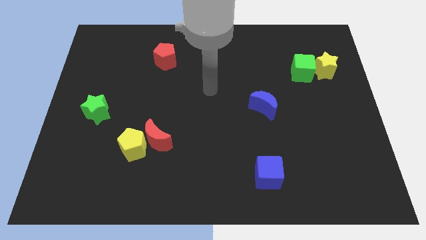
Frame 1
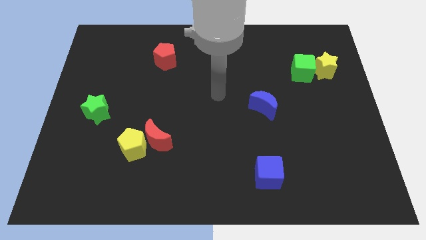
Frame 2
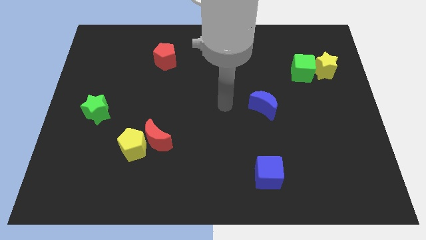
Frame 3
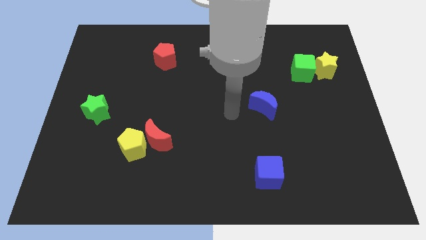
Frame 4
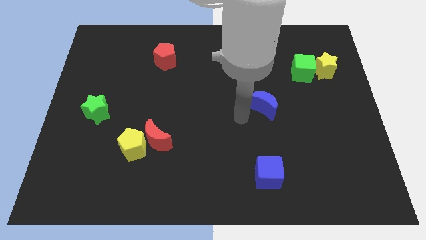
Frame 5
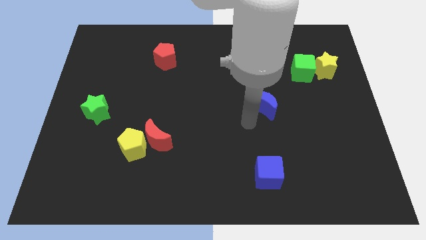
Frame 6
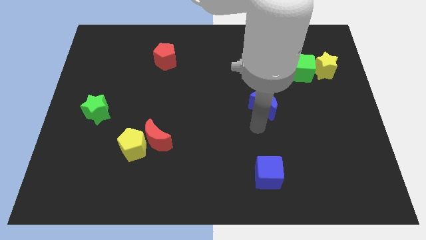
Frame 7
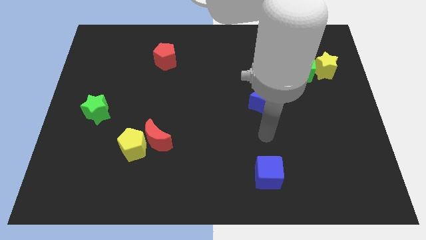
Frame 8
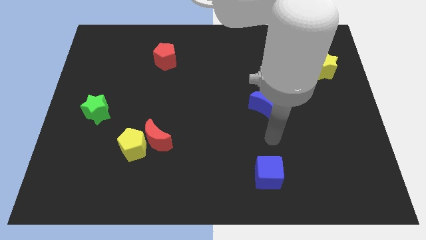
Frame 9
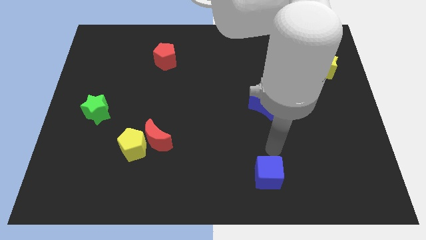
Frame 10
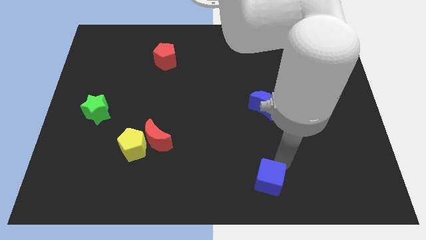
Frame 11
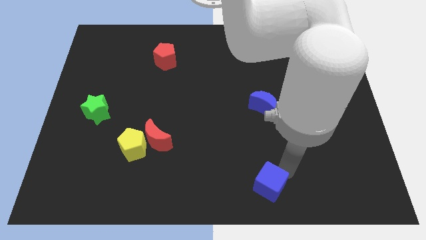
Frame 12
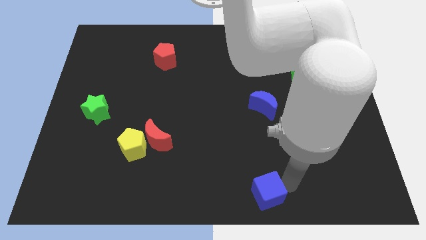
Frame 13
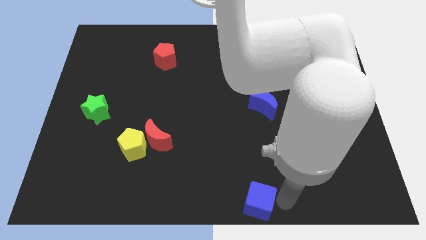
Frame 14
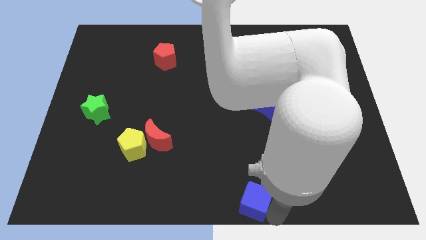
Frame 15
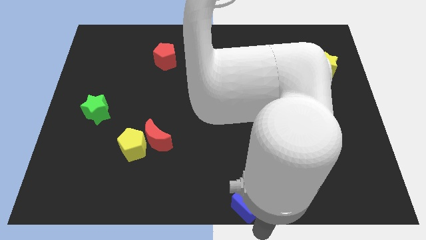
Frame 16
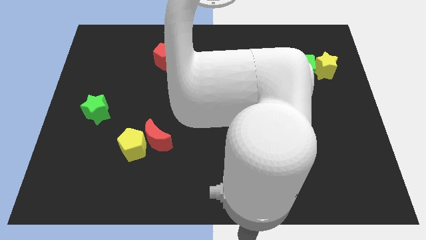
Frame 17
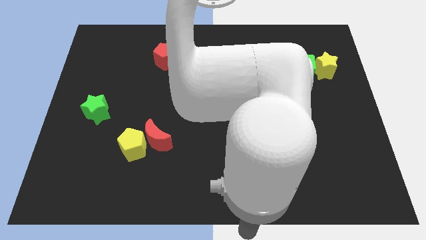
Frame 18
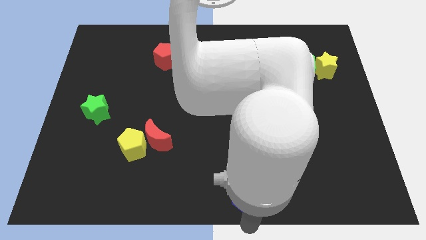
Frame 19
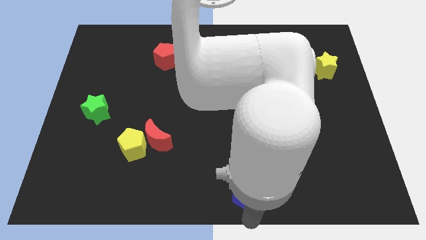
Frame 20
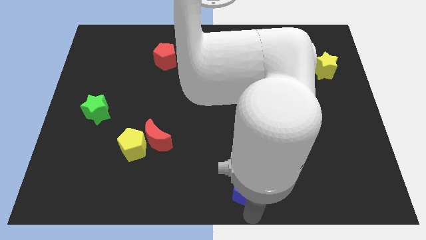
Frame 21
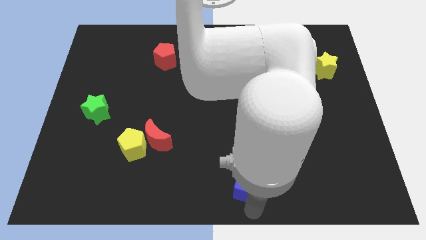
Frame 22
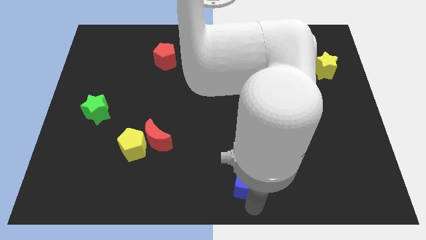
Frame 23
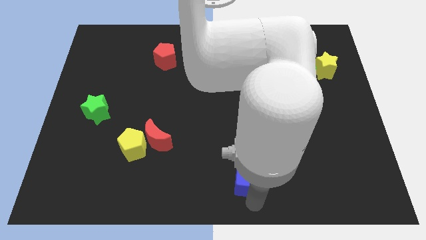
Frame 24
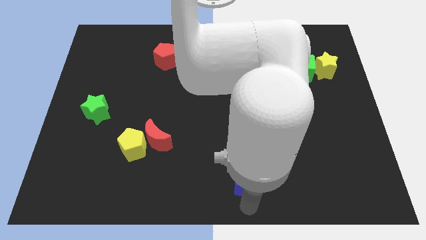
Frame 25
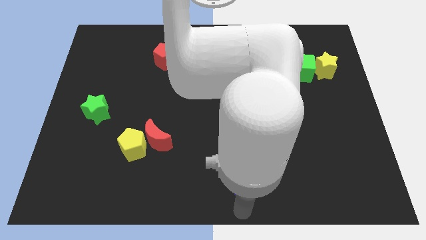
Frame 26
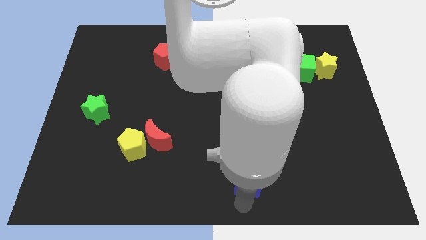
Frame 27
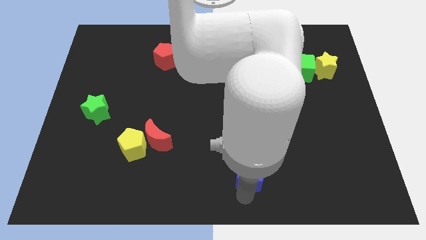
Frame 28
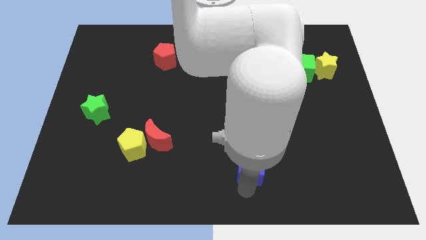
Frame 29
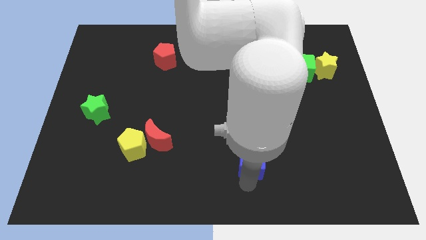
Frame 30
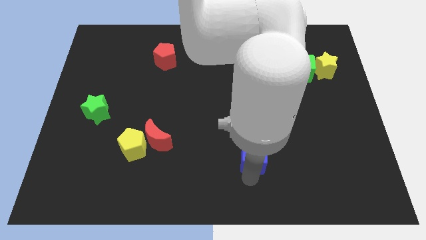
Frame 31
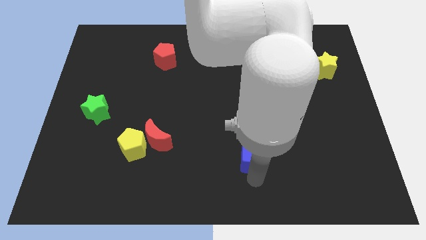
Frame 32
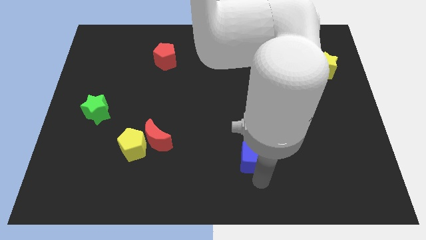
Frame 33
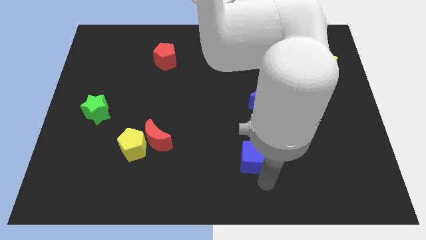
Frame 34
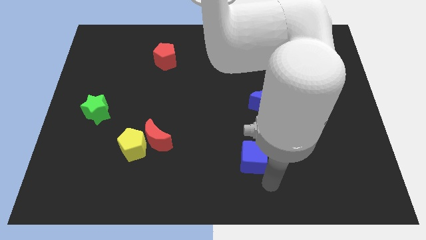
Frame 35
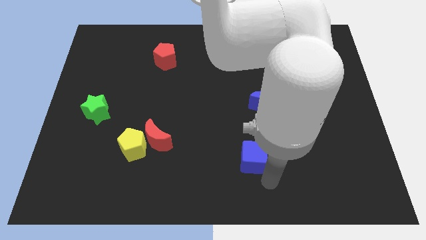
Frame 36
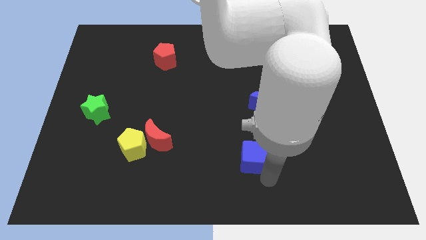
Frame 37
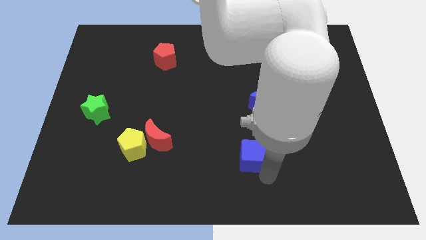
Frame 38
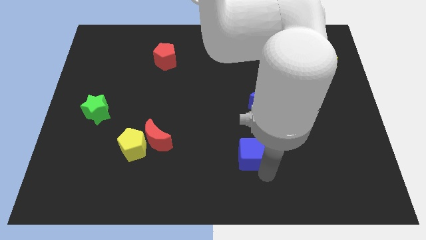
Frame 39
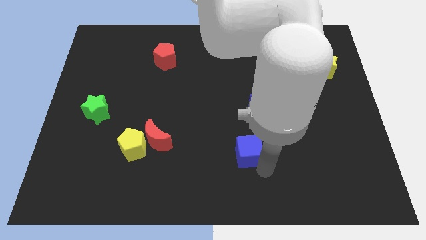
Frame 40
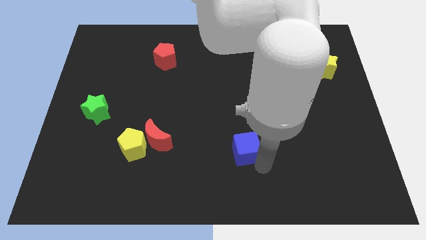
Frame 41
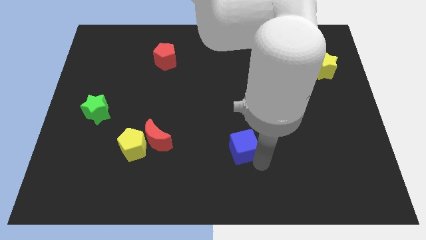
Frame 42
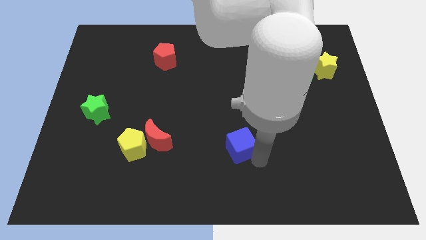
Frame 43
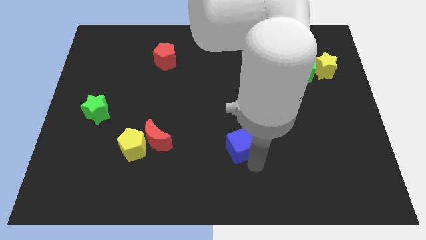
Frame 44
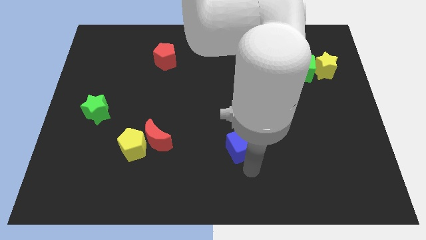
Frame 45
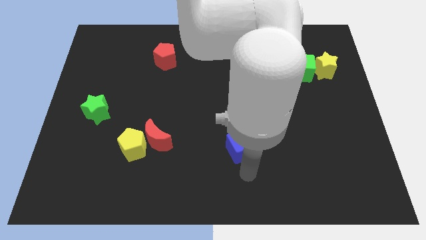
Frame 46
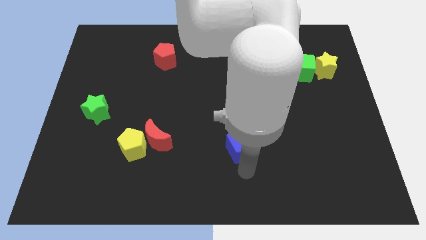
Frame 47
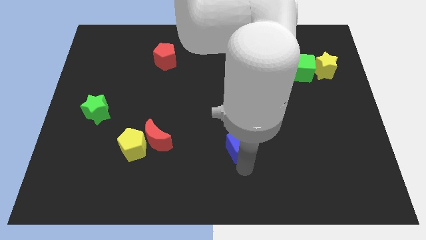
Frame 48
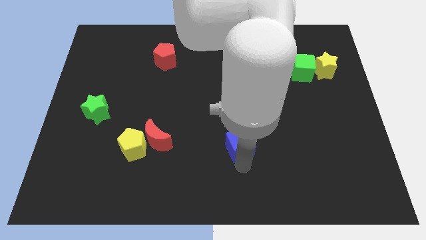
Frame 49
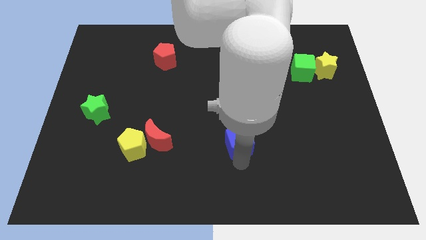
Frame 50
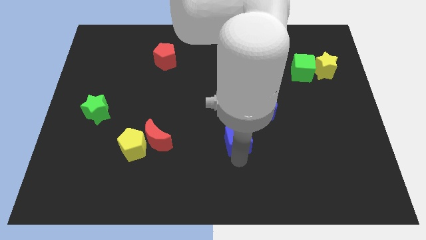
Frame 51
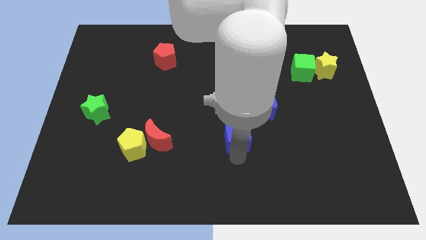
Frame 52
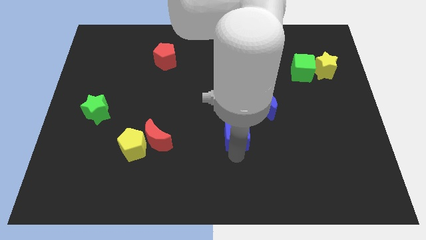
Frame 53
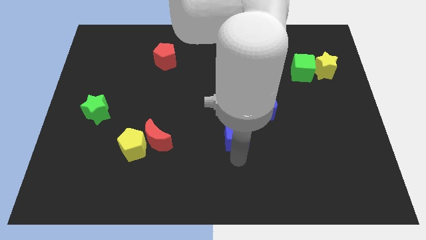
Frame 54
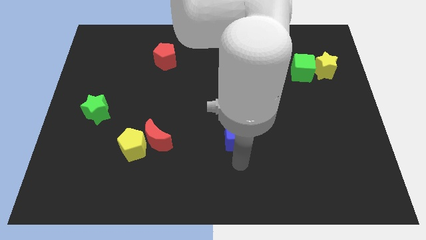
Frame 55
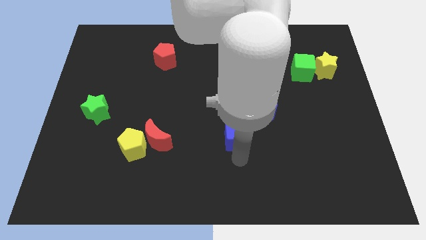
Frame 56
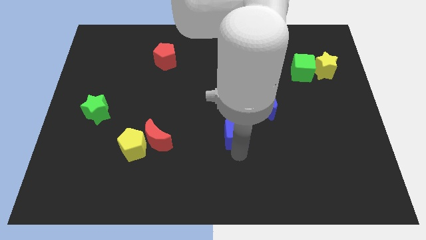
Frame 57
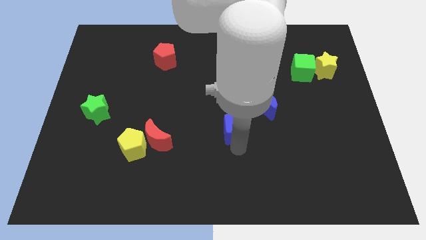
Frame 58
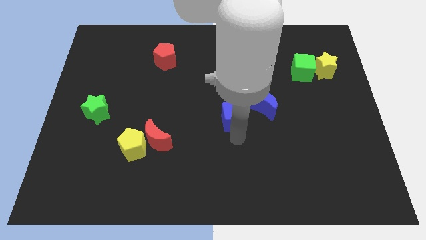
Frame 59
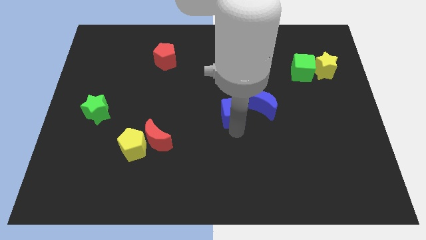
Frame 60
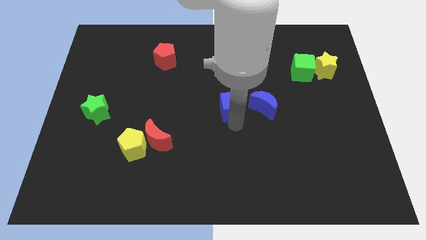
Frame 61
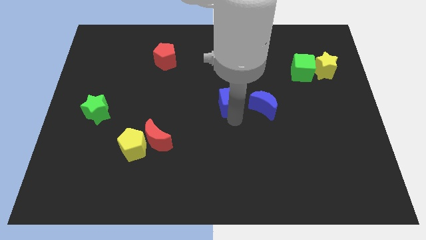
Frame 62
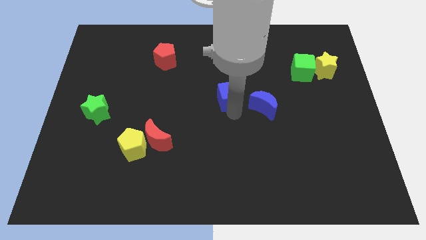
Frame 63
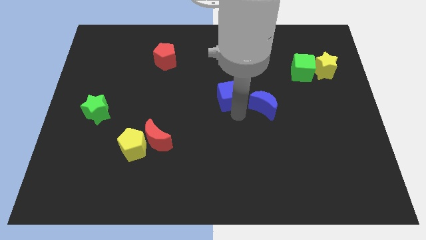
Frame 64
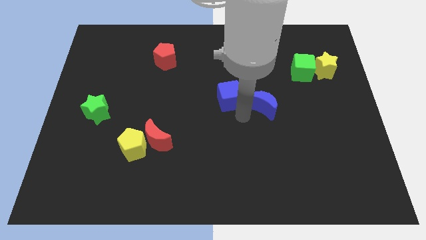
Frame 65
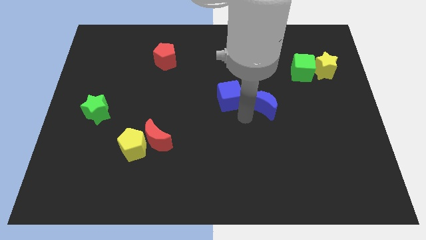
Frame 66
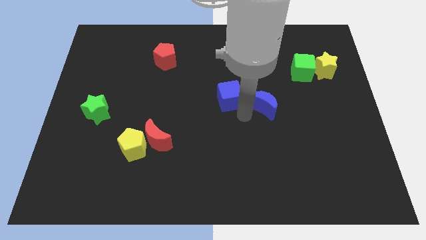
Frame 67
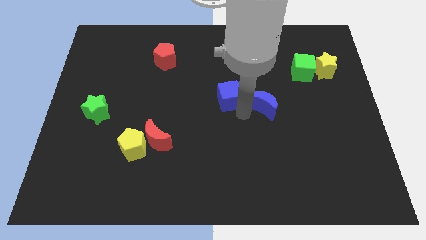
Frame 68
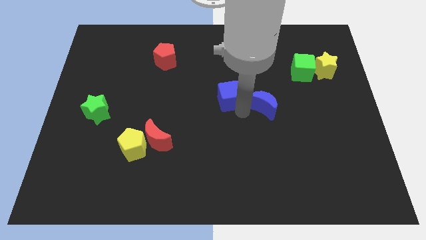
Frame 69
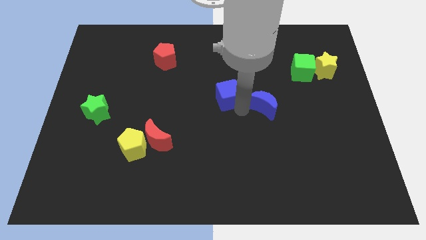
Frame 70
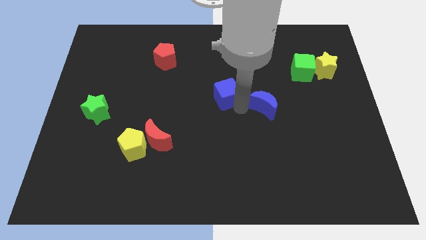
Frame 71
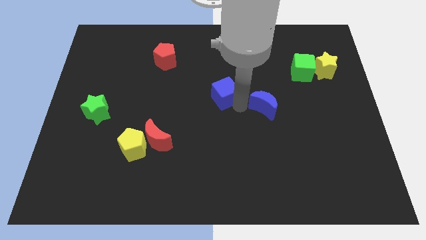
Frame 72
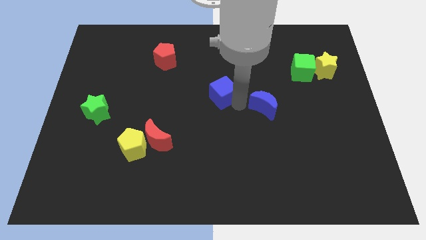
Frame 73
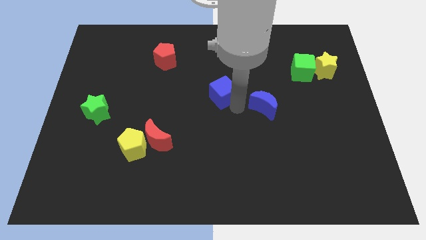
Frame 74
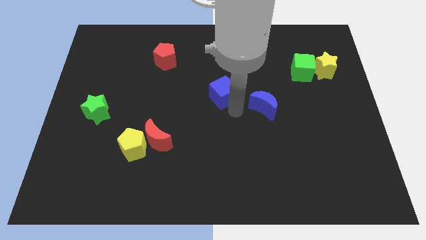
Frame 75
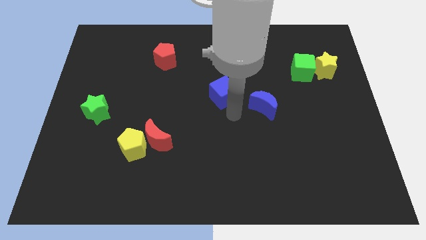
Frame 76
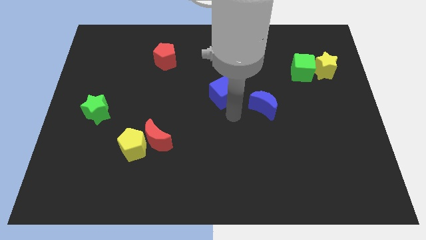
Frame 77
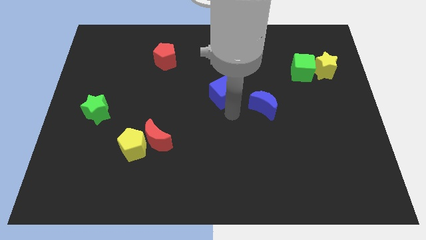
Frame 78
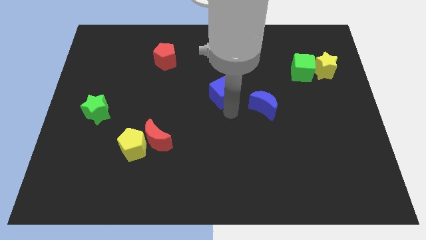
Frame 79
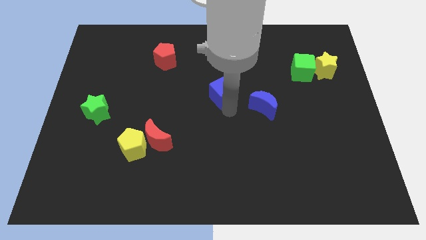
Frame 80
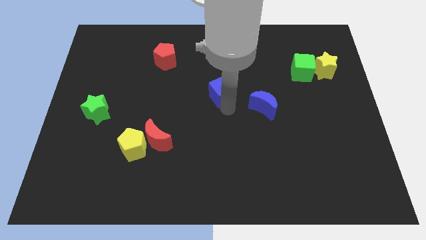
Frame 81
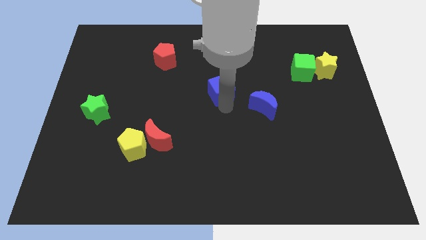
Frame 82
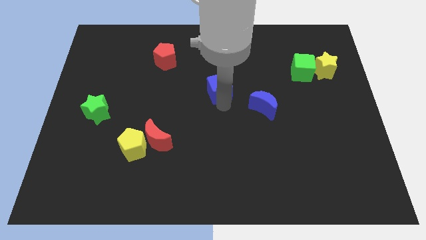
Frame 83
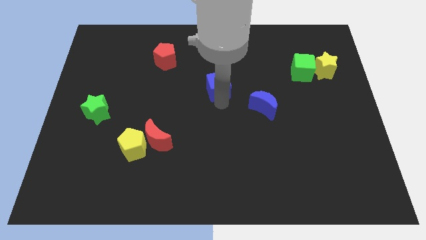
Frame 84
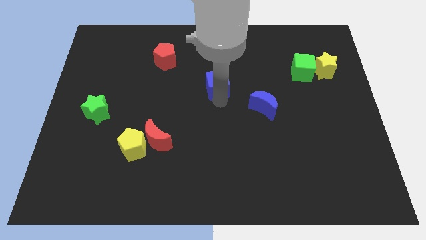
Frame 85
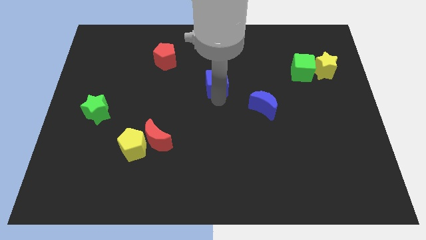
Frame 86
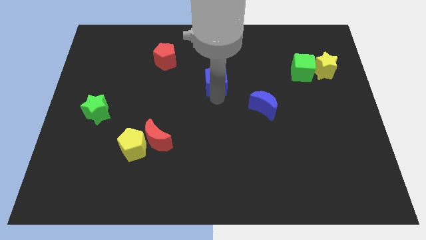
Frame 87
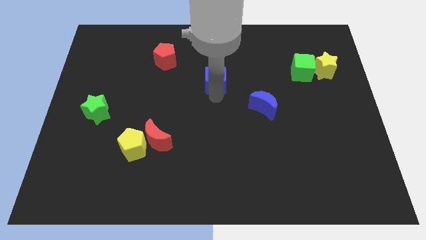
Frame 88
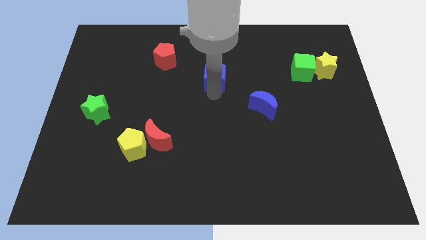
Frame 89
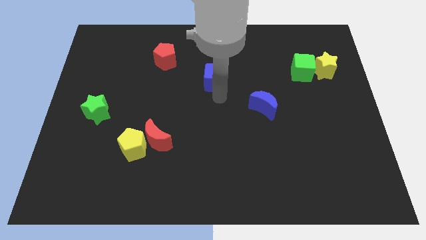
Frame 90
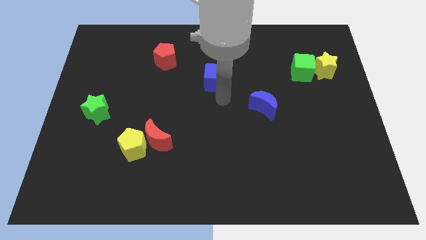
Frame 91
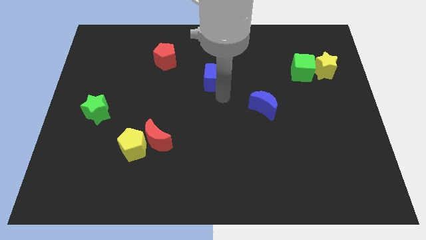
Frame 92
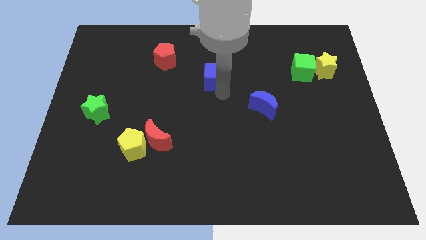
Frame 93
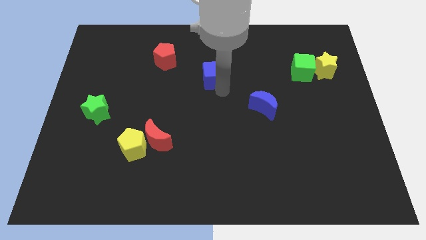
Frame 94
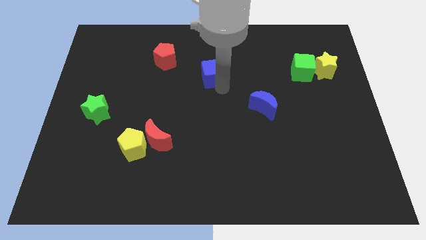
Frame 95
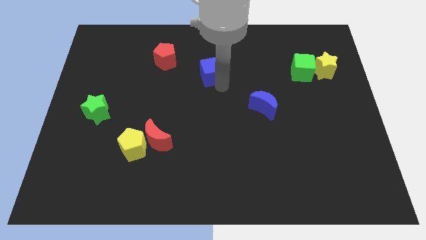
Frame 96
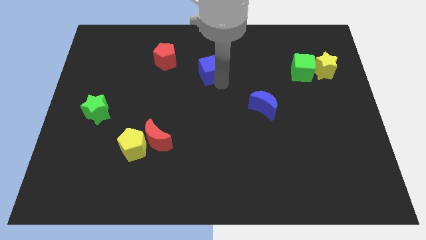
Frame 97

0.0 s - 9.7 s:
move the blue cube right of the red pentagon
